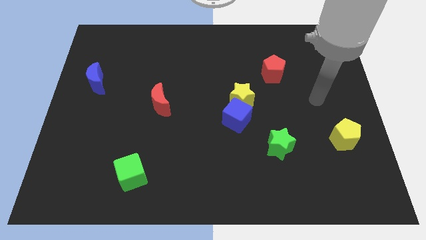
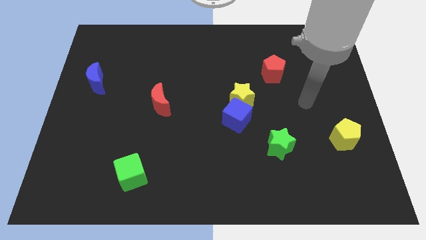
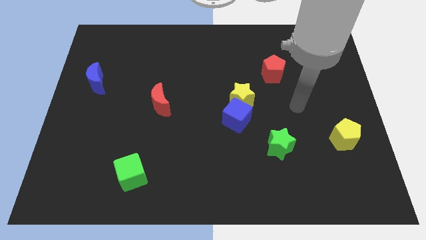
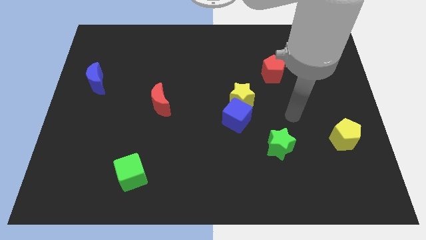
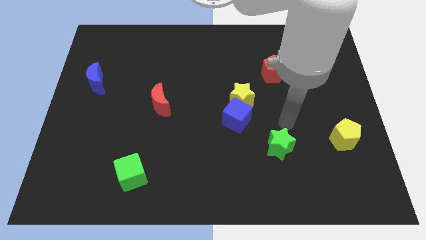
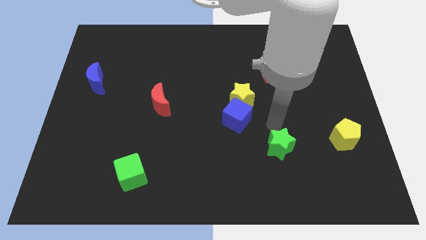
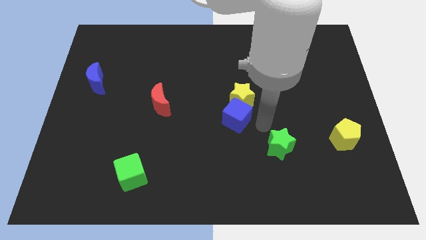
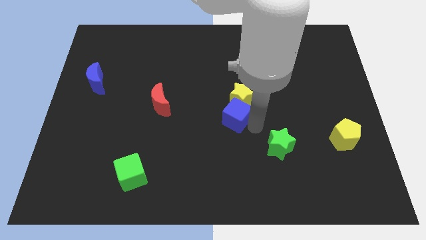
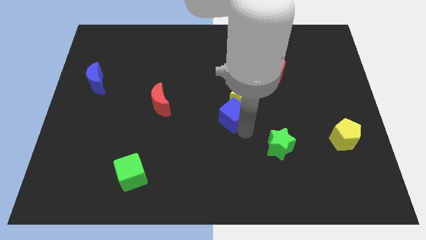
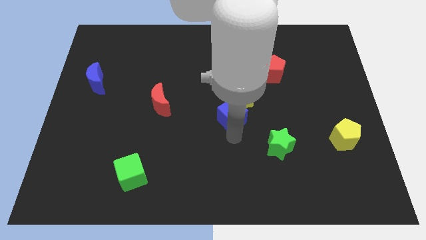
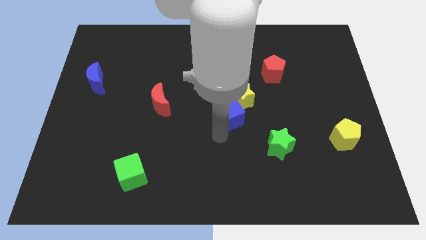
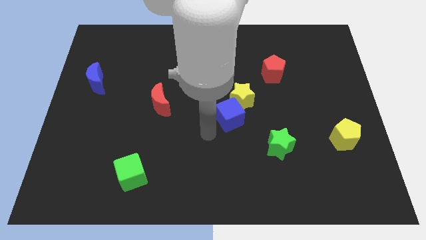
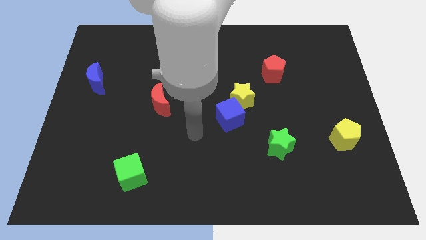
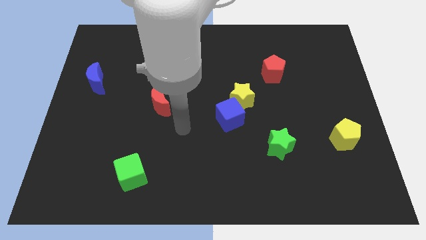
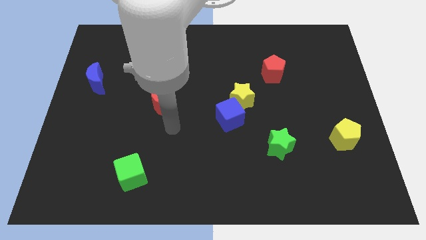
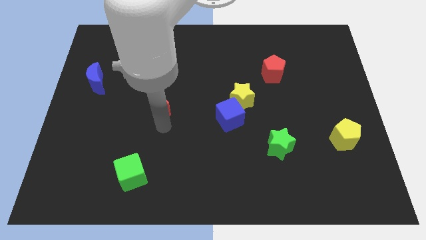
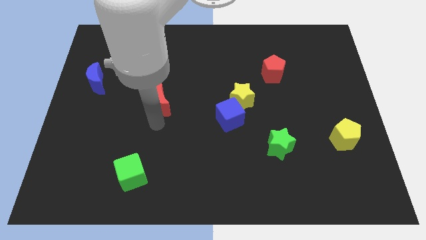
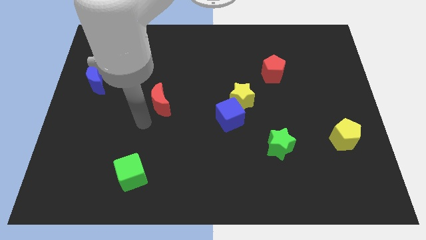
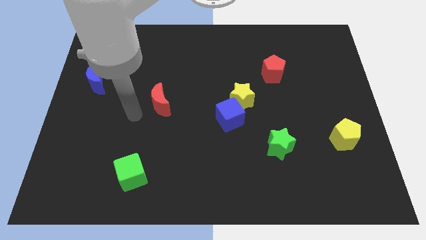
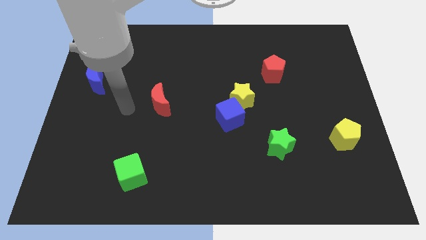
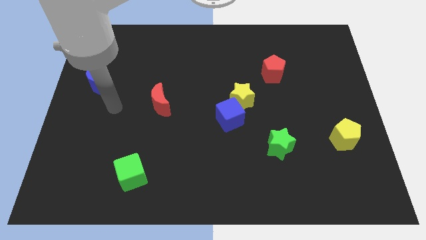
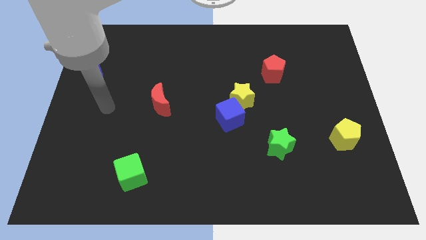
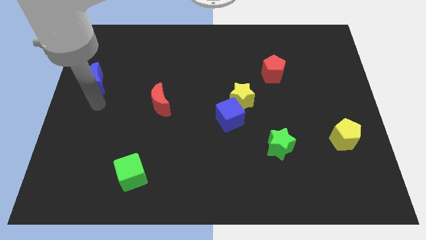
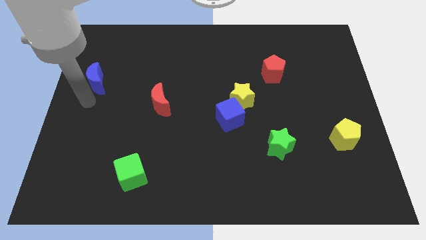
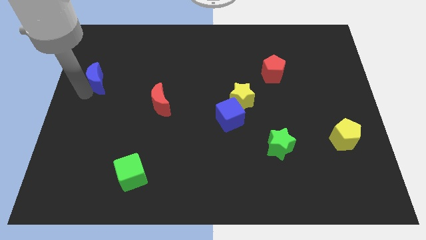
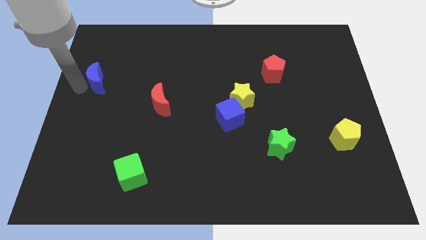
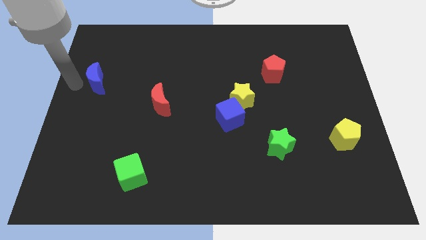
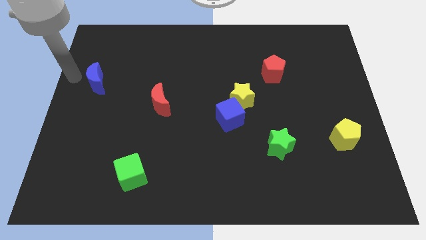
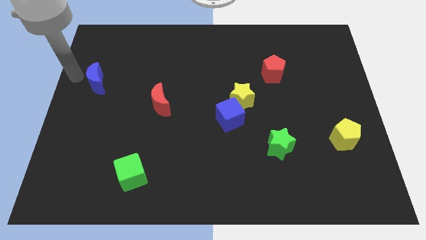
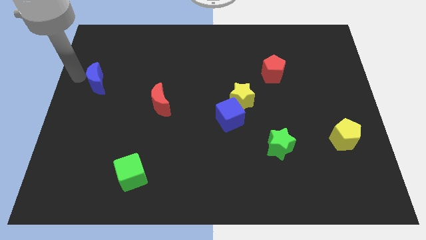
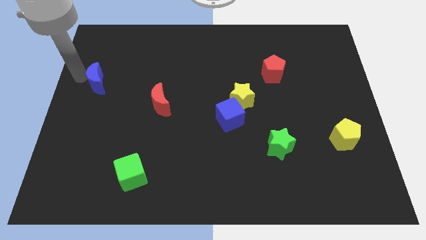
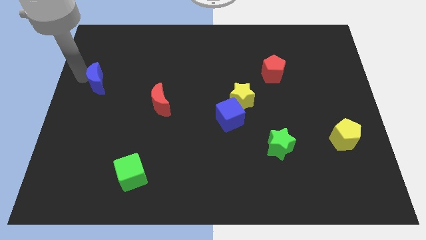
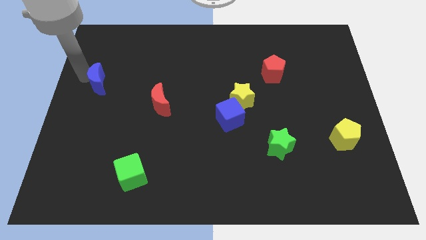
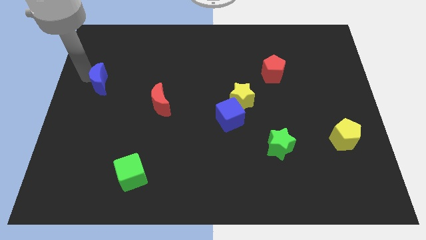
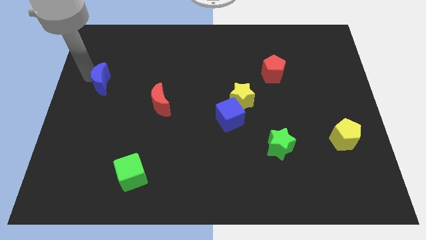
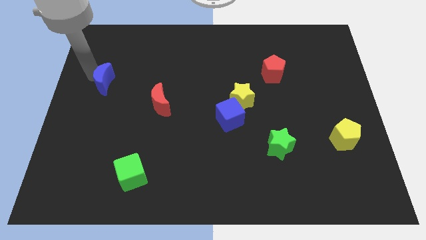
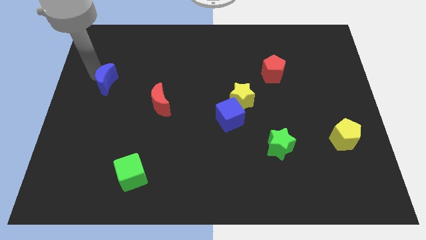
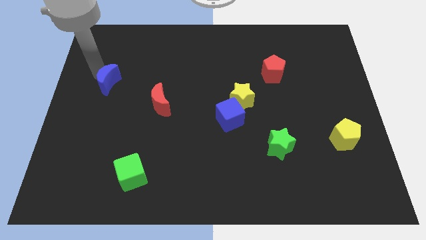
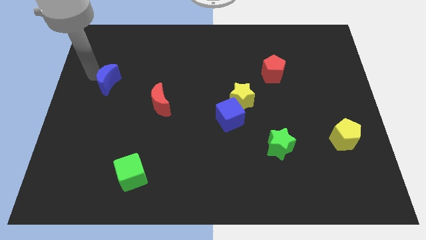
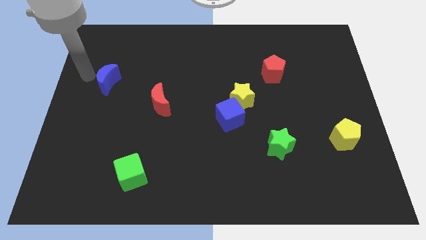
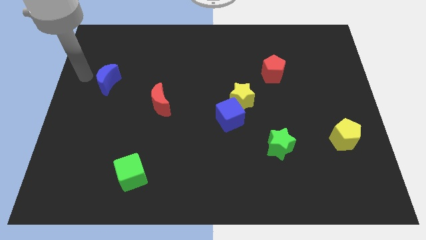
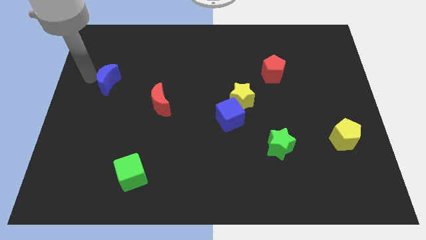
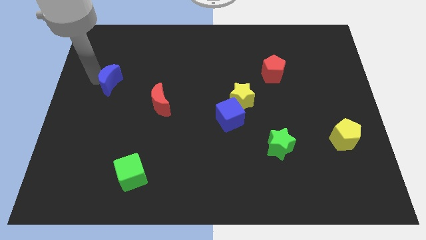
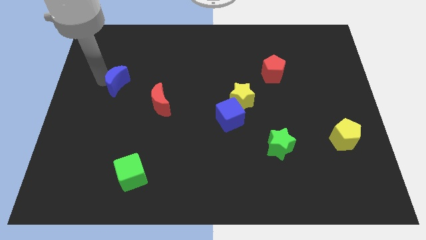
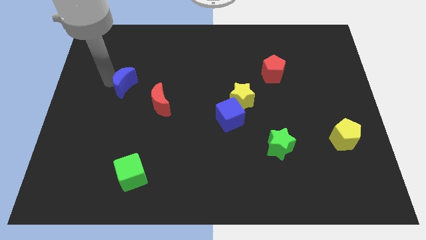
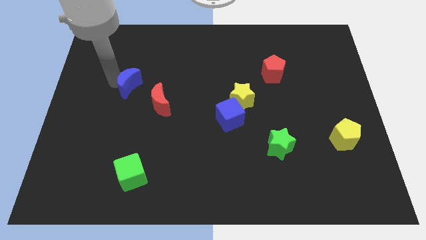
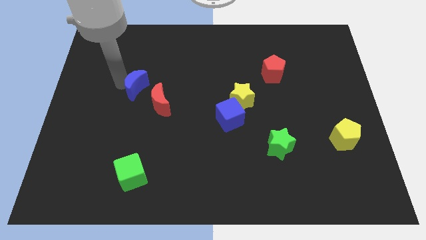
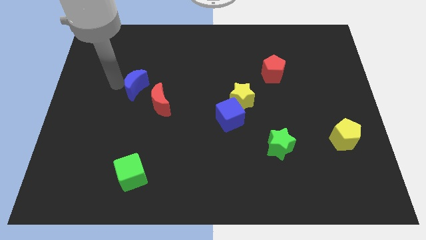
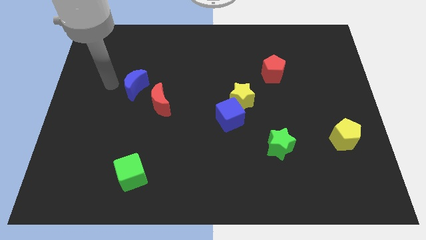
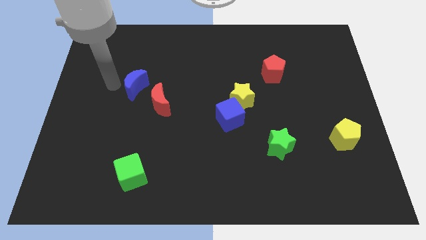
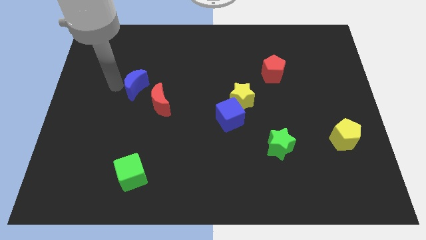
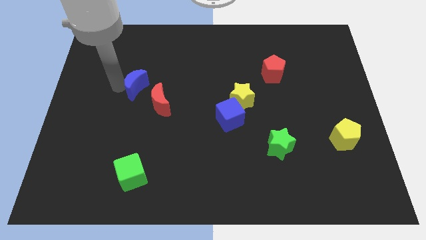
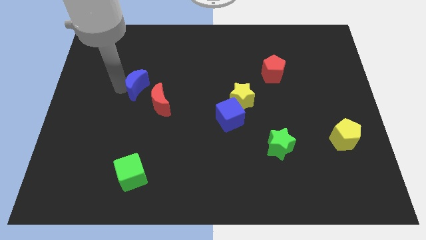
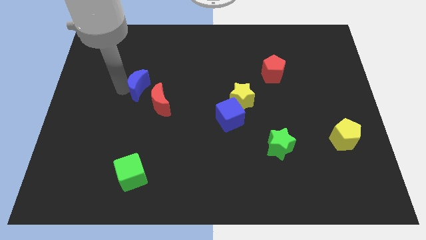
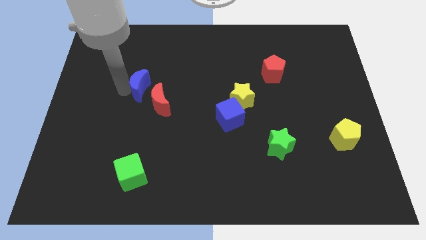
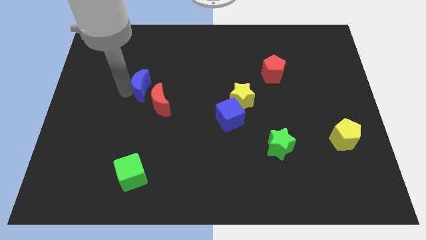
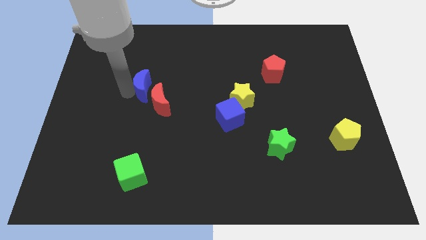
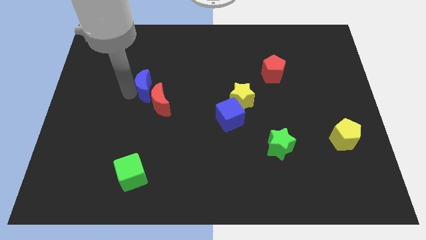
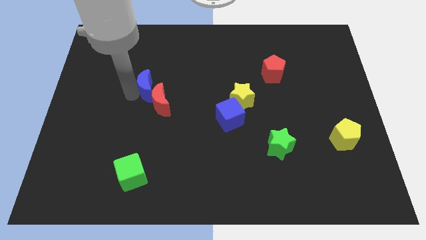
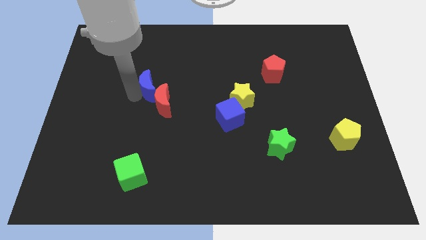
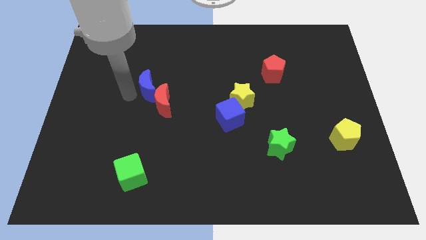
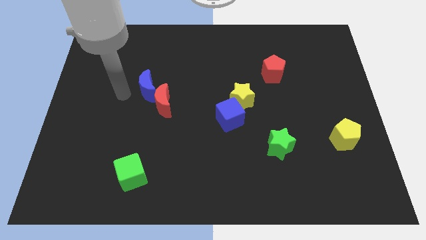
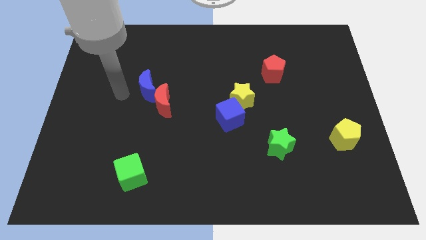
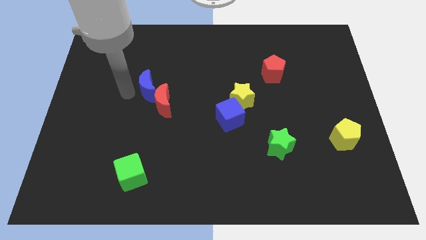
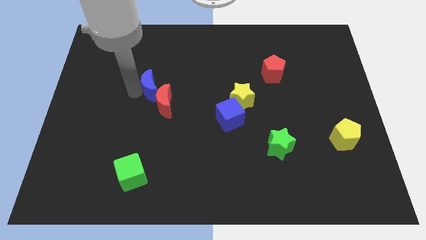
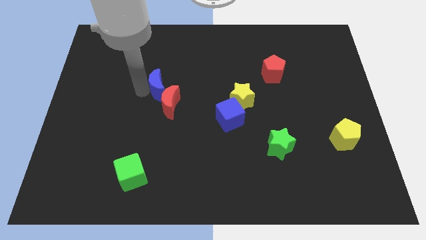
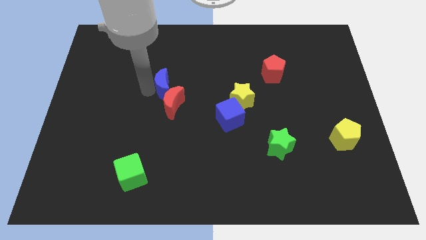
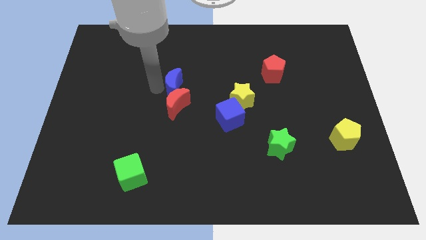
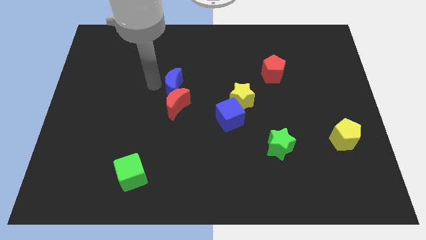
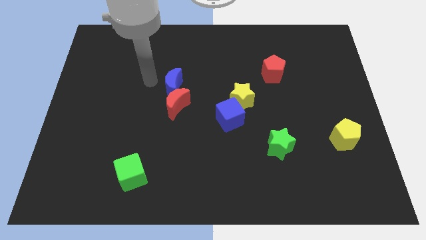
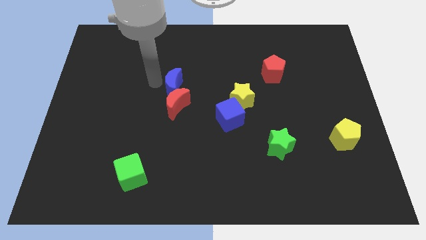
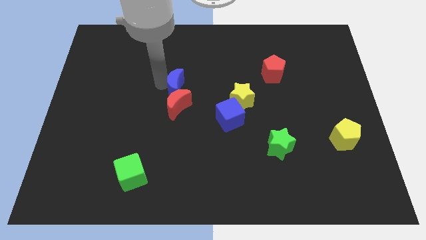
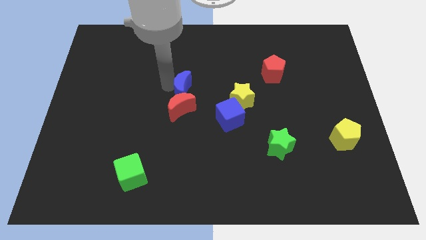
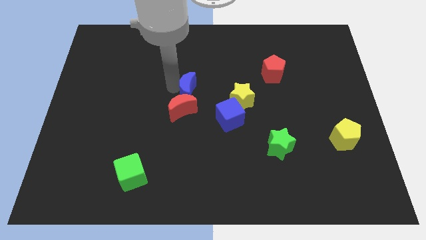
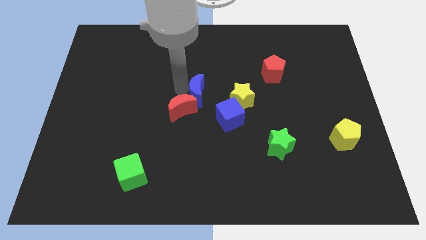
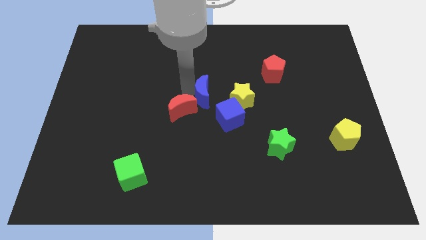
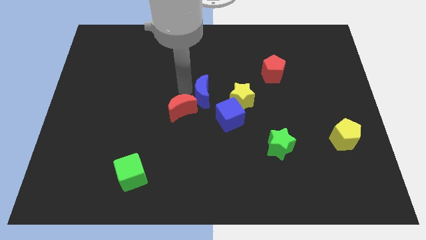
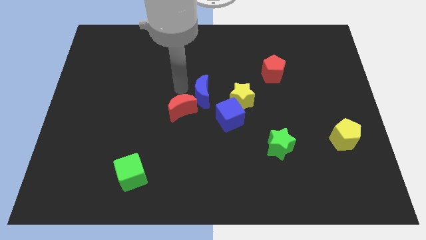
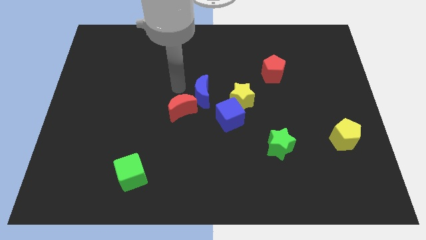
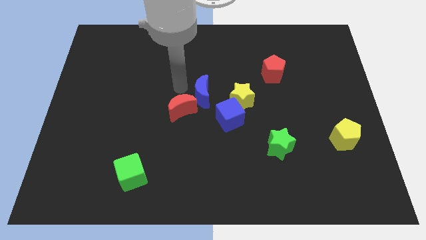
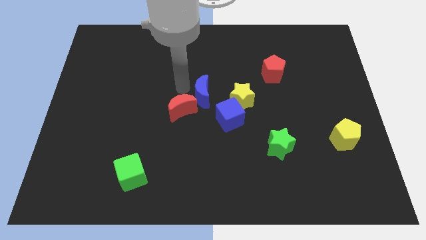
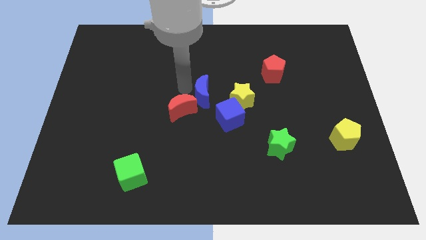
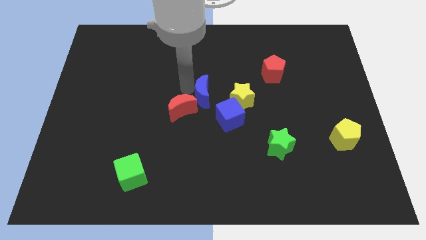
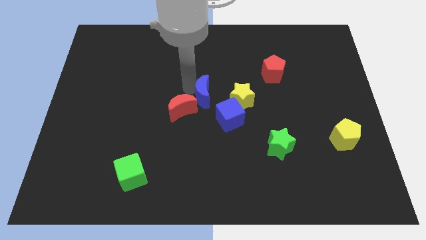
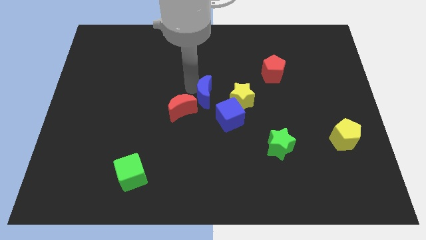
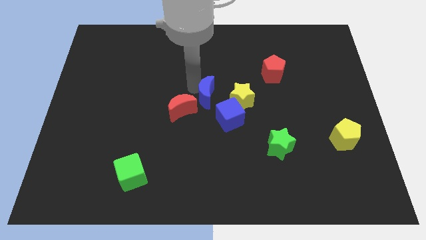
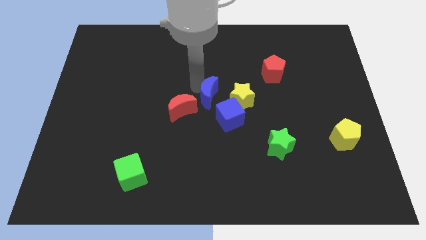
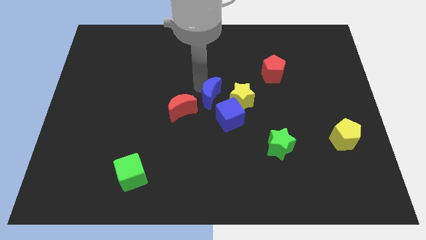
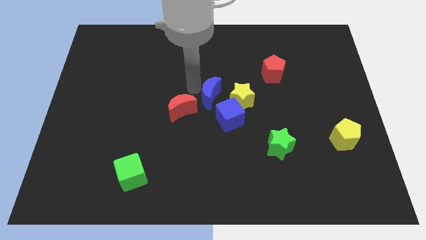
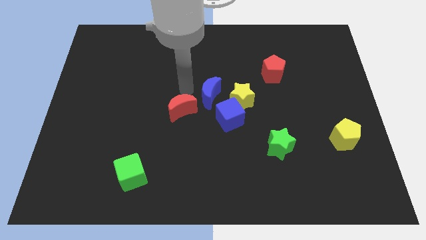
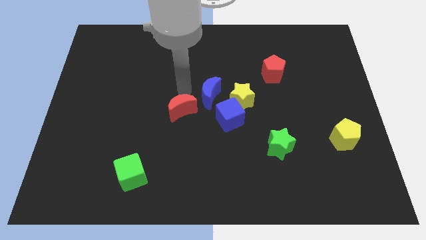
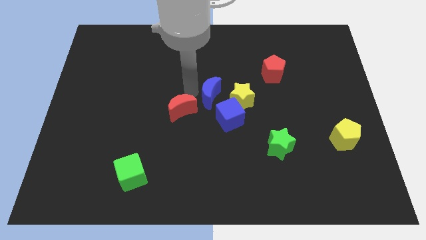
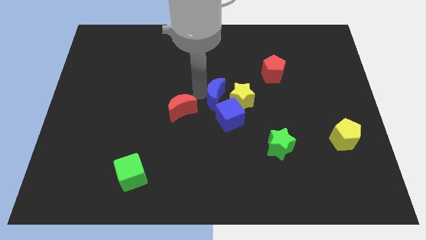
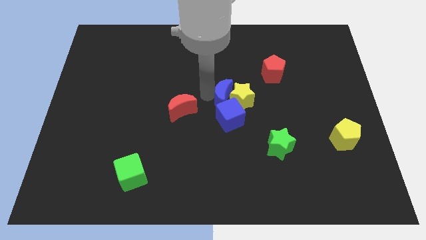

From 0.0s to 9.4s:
slide the blue moon close to the yellow star
